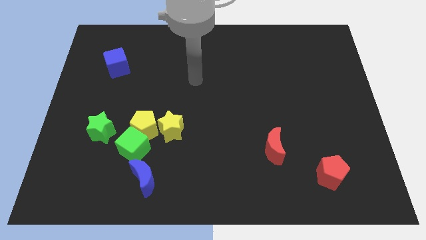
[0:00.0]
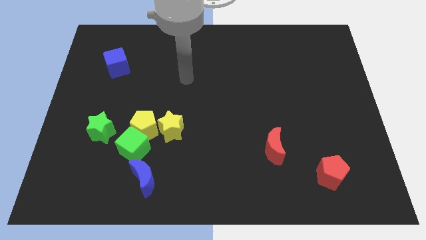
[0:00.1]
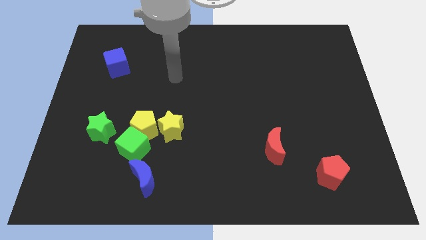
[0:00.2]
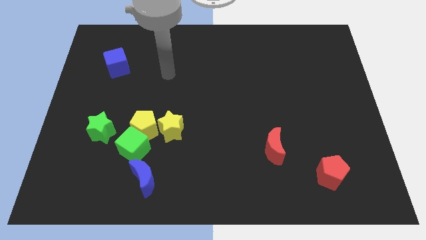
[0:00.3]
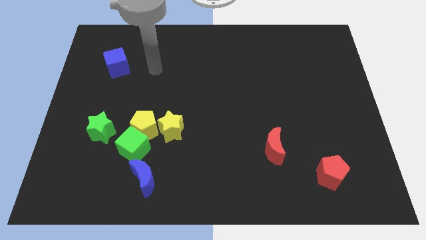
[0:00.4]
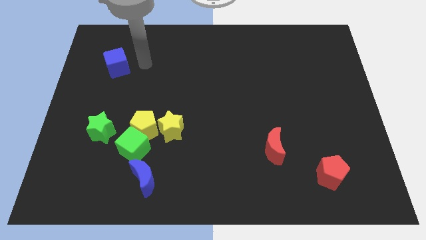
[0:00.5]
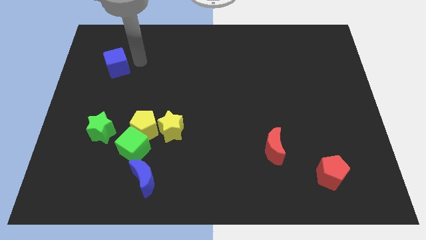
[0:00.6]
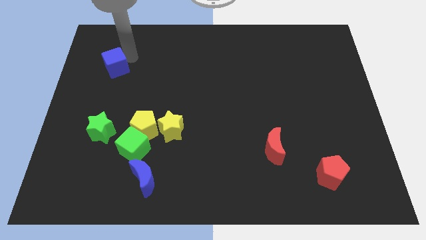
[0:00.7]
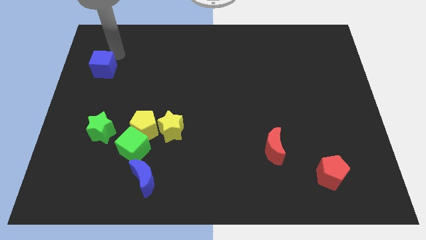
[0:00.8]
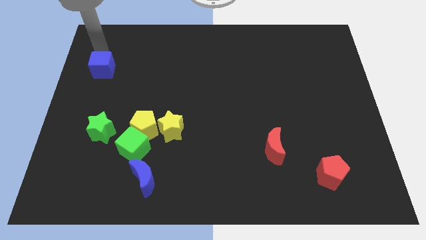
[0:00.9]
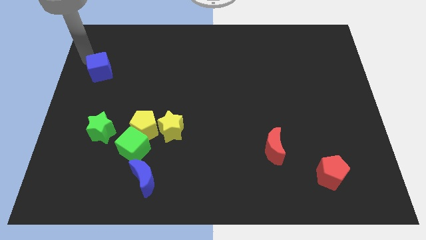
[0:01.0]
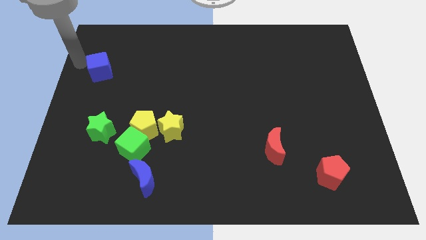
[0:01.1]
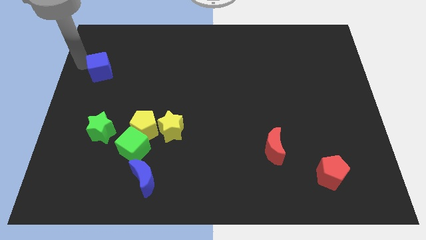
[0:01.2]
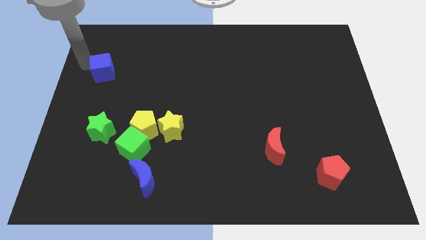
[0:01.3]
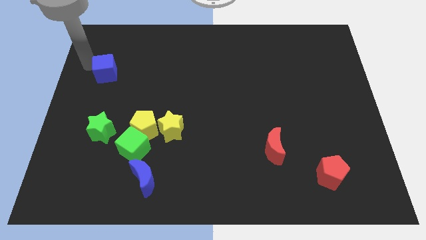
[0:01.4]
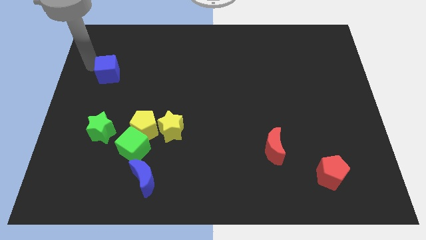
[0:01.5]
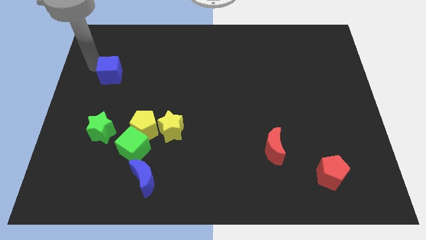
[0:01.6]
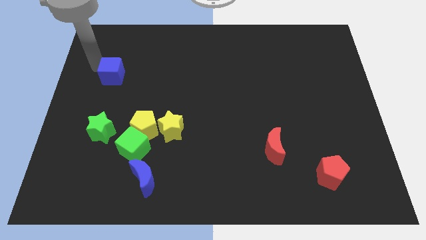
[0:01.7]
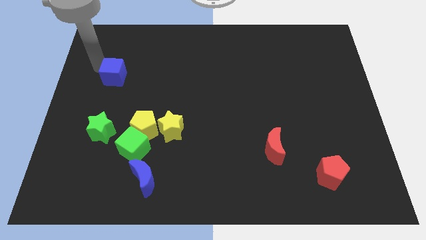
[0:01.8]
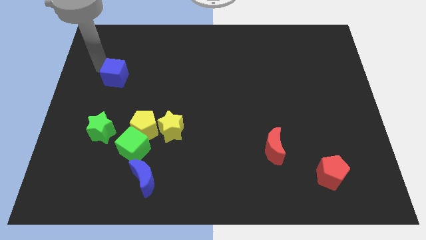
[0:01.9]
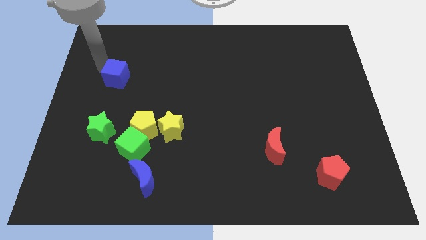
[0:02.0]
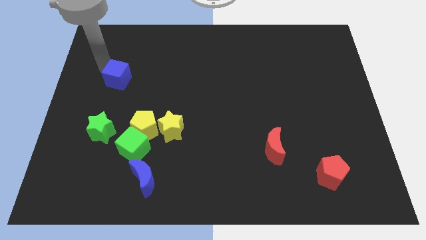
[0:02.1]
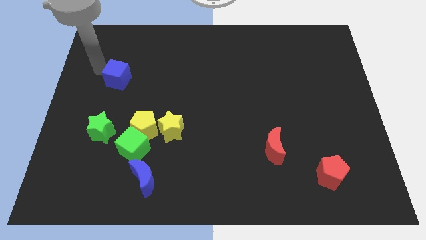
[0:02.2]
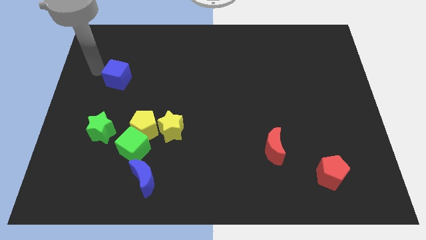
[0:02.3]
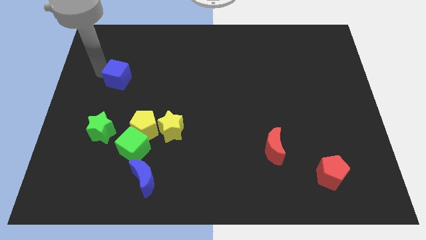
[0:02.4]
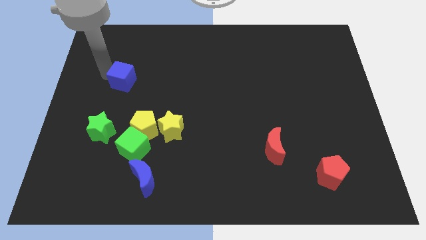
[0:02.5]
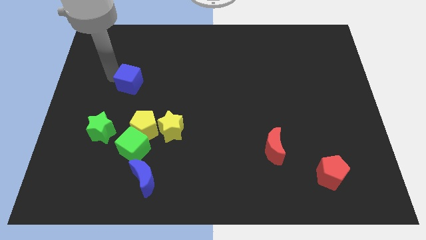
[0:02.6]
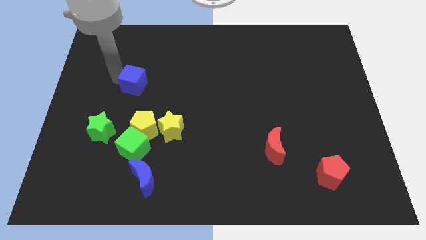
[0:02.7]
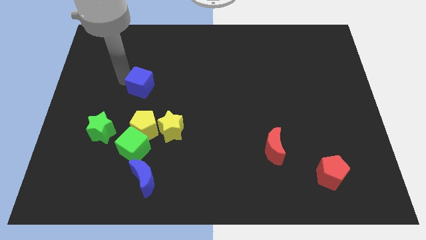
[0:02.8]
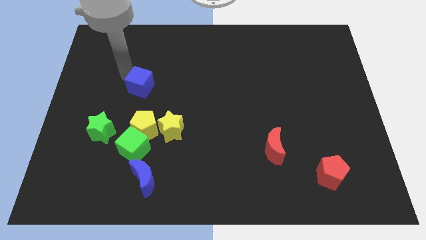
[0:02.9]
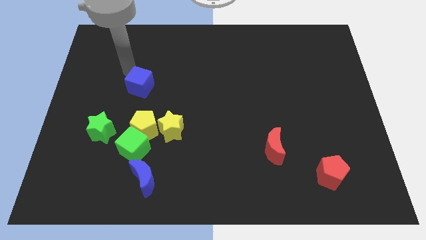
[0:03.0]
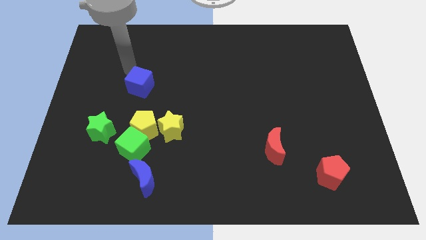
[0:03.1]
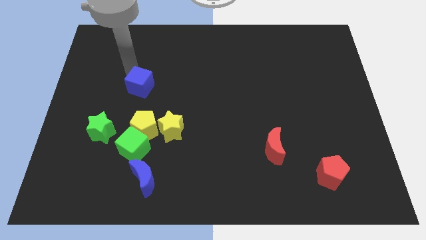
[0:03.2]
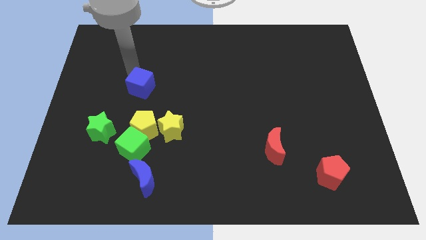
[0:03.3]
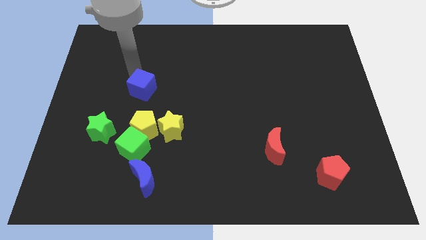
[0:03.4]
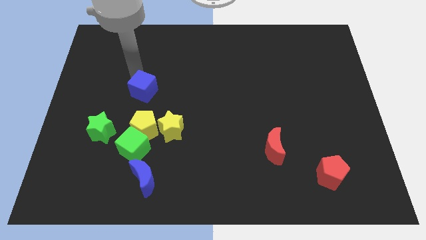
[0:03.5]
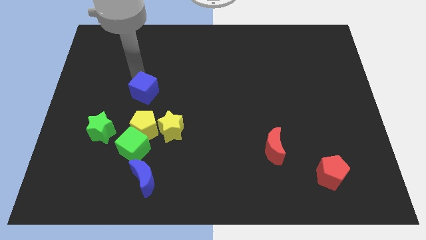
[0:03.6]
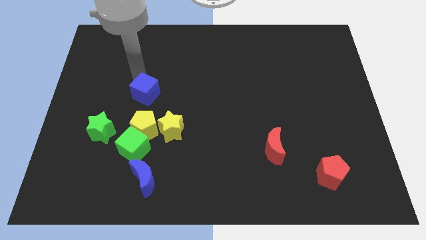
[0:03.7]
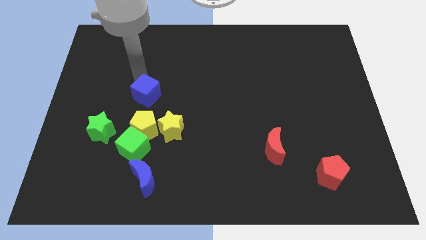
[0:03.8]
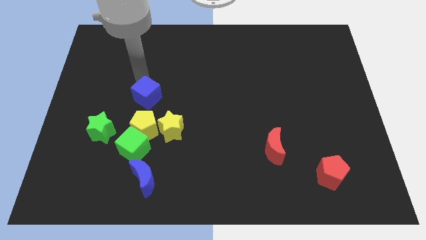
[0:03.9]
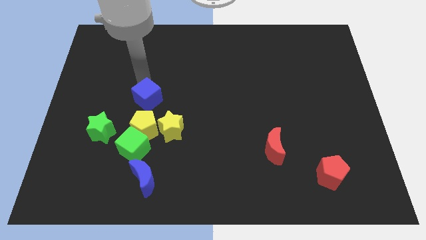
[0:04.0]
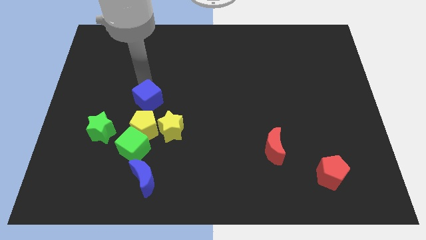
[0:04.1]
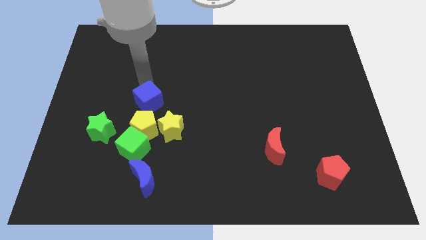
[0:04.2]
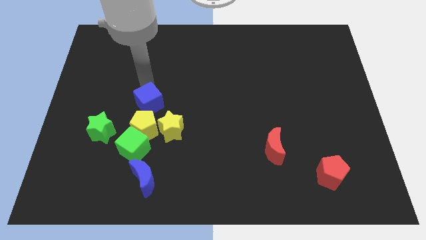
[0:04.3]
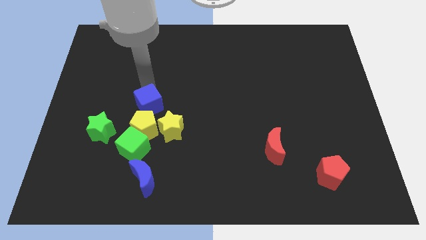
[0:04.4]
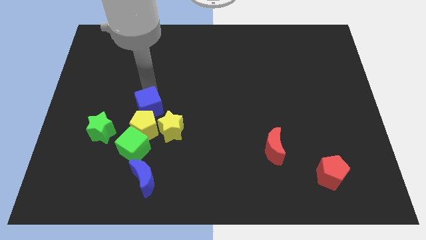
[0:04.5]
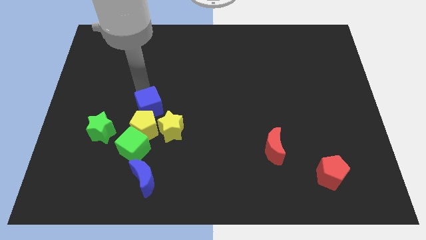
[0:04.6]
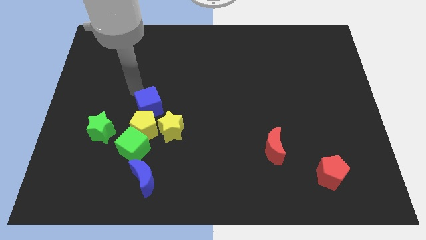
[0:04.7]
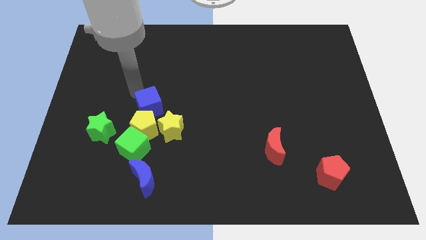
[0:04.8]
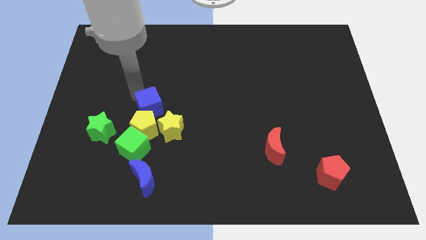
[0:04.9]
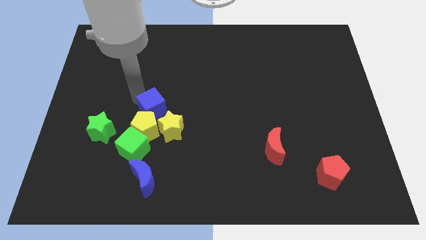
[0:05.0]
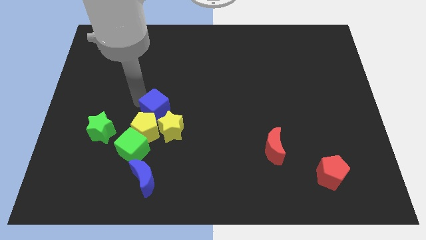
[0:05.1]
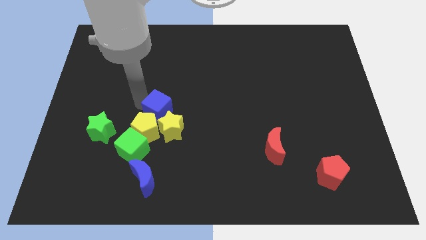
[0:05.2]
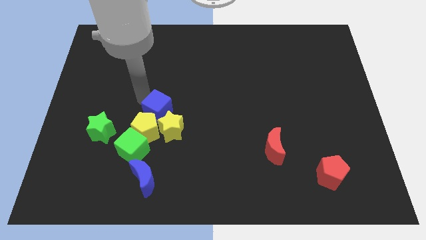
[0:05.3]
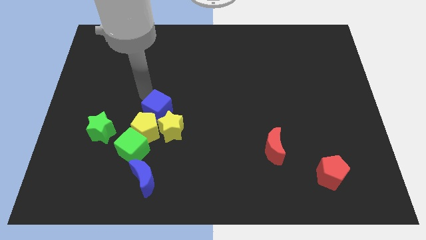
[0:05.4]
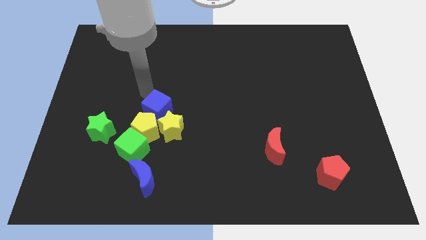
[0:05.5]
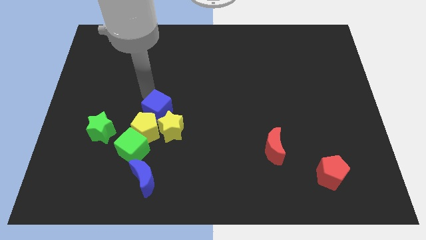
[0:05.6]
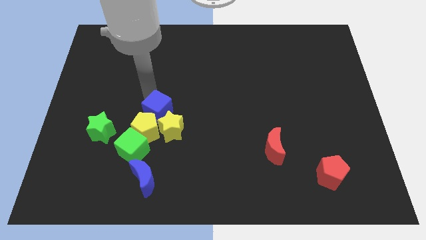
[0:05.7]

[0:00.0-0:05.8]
move the blue cube towards the yellow star

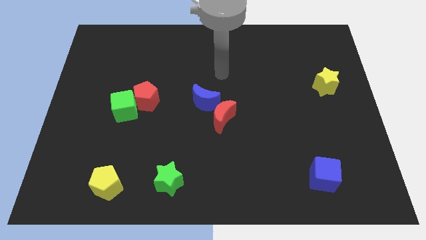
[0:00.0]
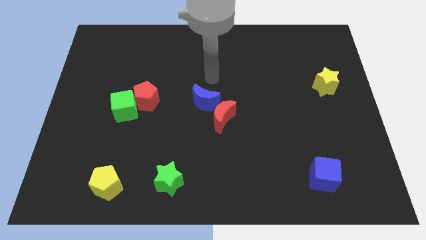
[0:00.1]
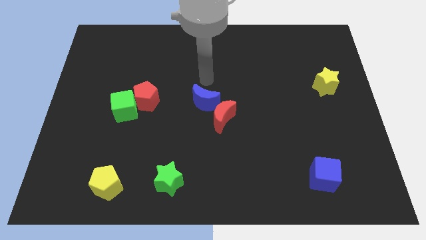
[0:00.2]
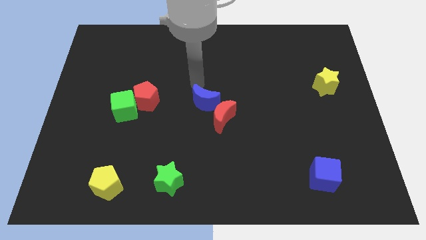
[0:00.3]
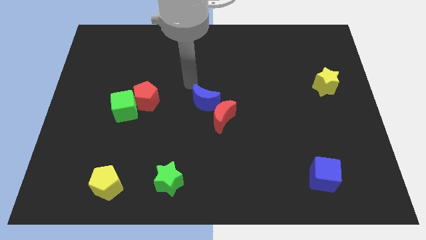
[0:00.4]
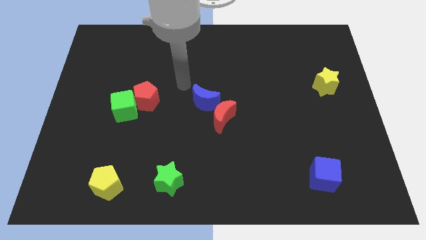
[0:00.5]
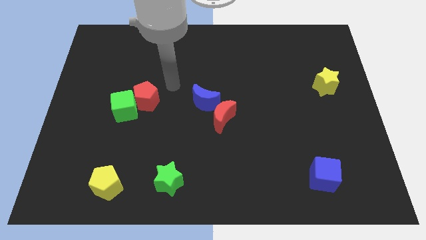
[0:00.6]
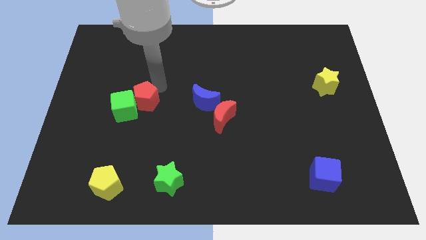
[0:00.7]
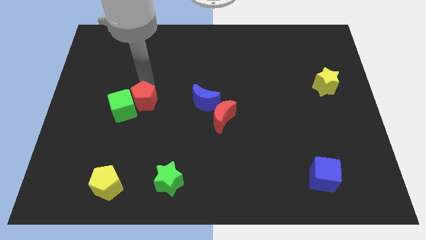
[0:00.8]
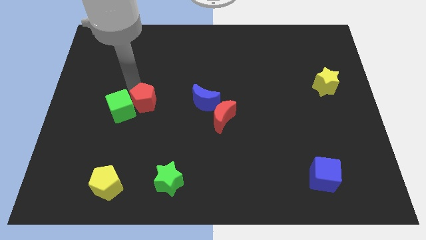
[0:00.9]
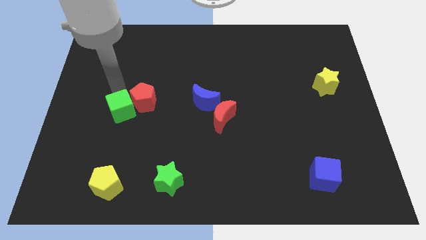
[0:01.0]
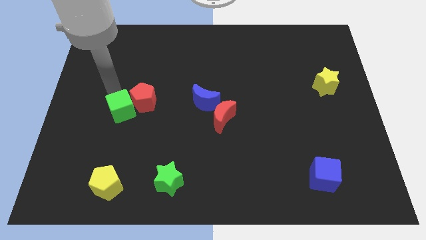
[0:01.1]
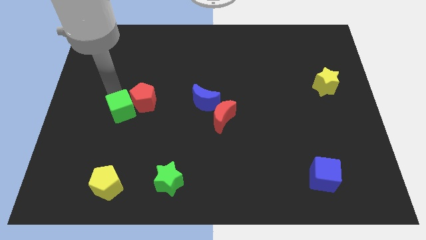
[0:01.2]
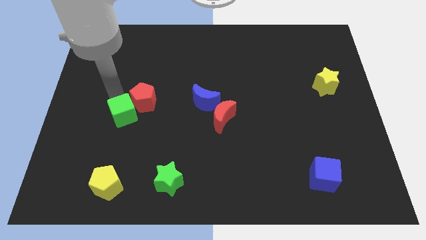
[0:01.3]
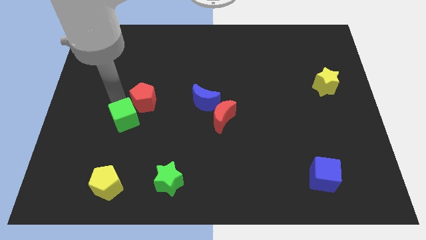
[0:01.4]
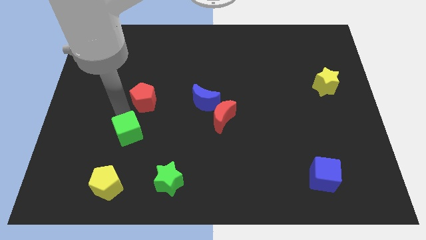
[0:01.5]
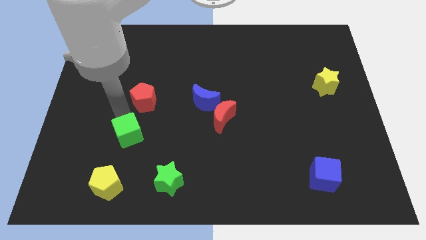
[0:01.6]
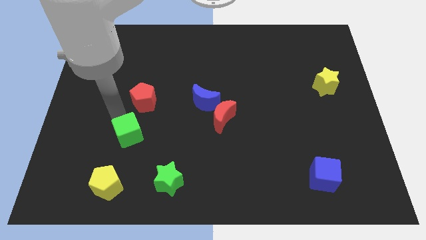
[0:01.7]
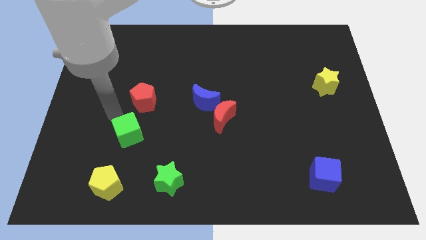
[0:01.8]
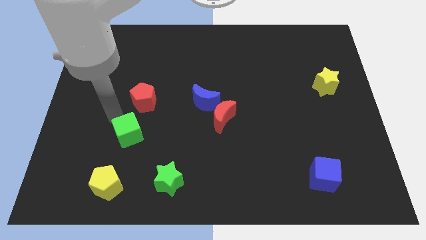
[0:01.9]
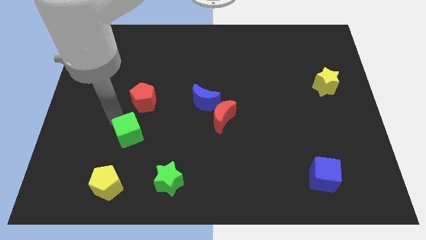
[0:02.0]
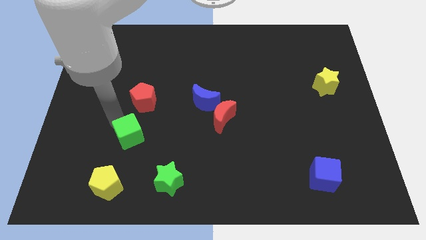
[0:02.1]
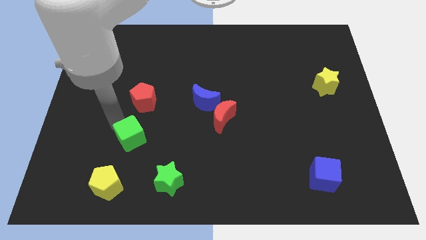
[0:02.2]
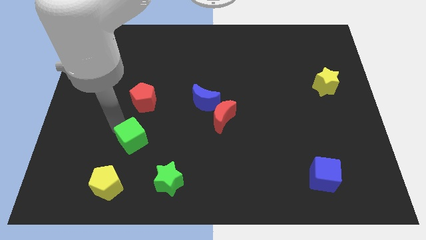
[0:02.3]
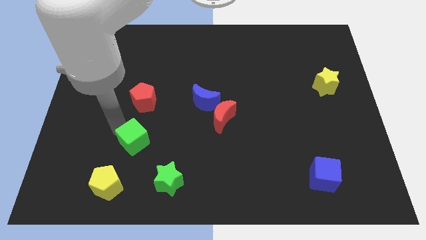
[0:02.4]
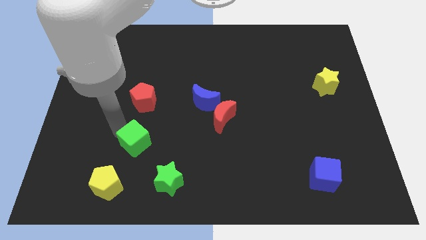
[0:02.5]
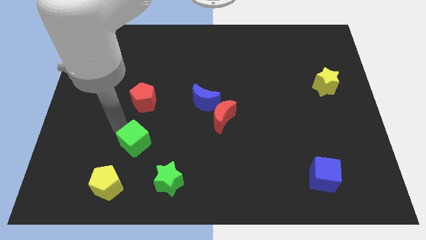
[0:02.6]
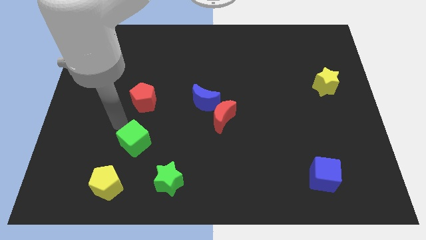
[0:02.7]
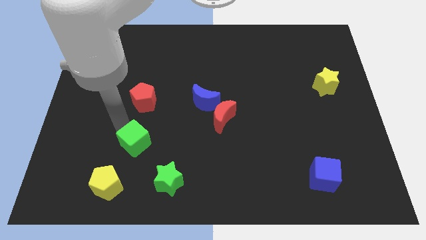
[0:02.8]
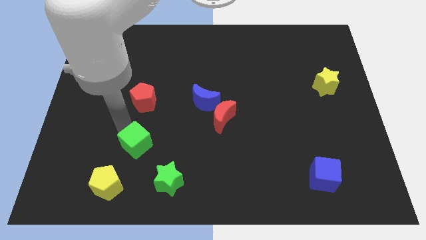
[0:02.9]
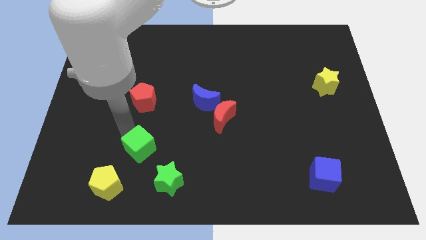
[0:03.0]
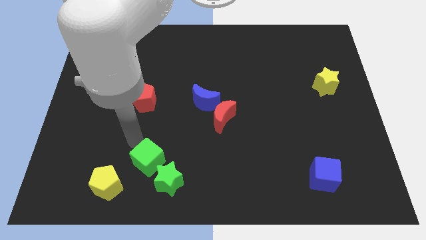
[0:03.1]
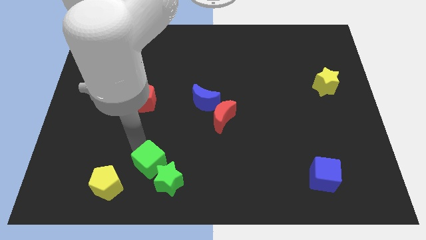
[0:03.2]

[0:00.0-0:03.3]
move the green cube towards the green star
